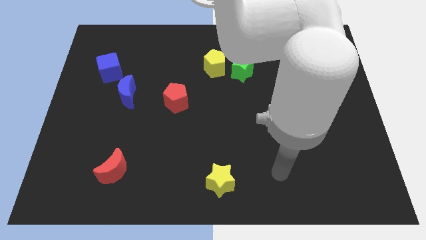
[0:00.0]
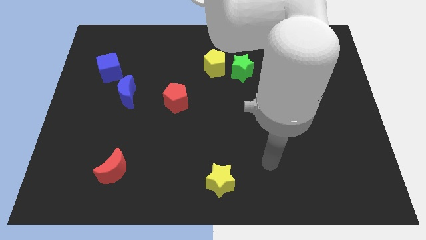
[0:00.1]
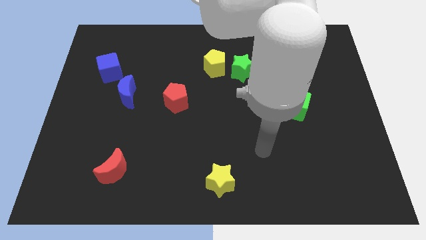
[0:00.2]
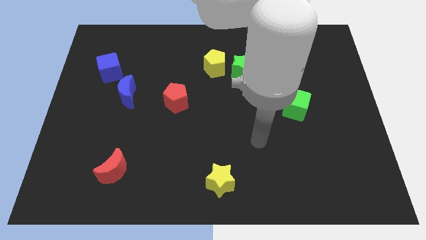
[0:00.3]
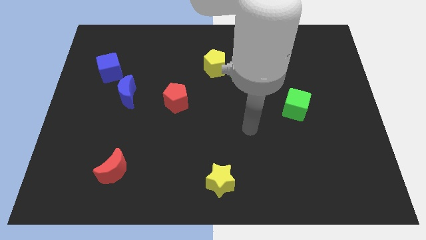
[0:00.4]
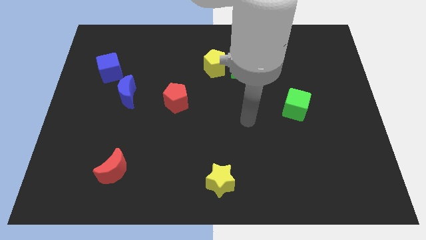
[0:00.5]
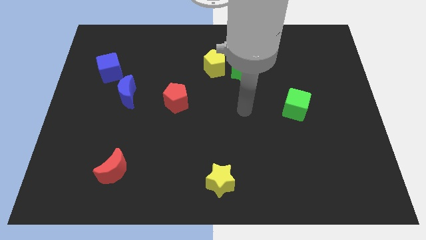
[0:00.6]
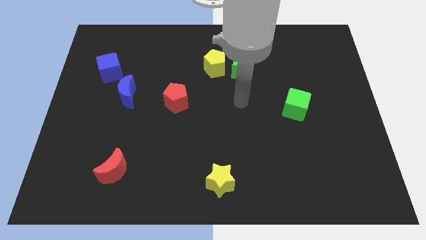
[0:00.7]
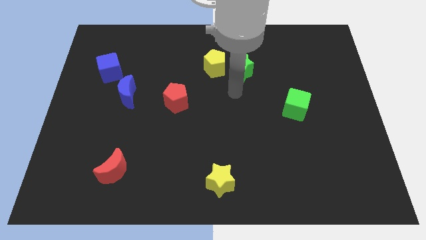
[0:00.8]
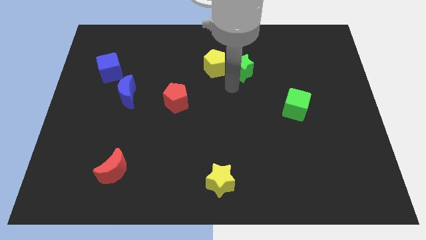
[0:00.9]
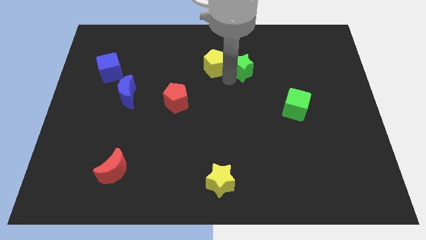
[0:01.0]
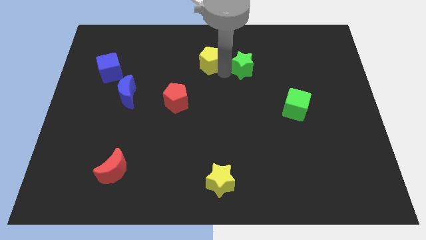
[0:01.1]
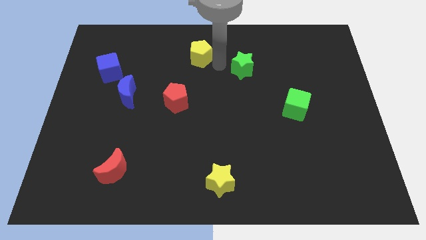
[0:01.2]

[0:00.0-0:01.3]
move the green star away from the yellow pentagon

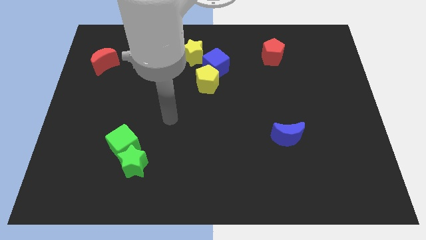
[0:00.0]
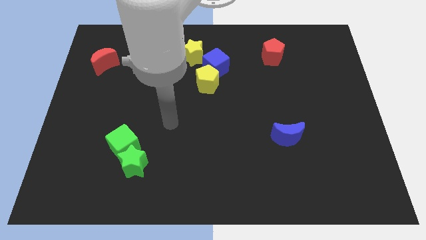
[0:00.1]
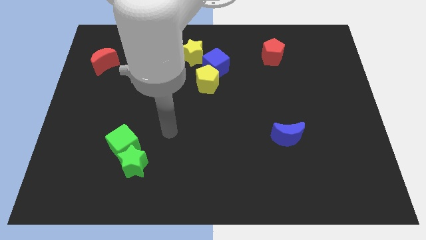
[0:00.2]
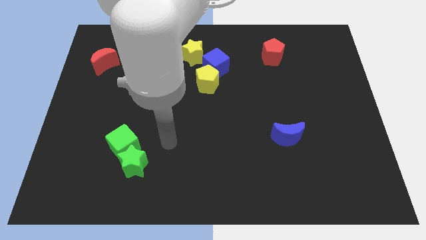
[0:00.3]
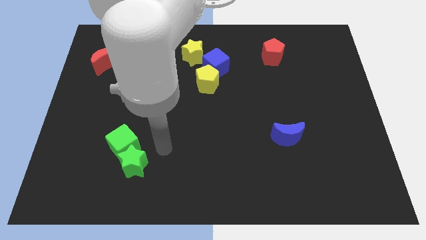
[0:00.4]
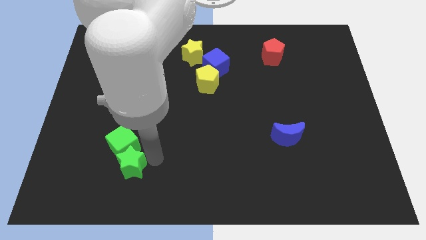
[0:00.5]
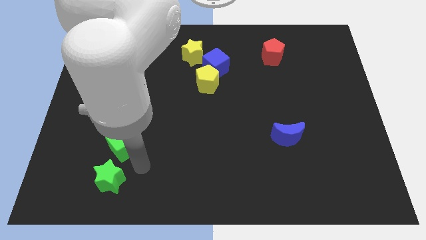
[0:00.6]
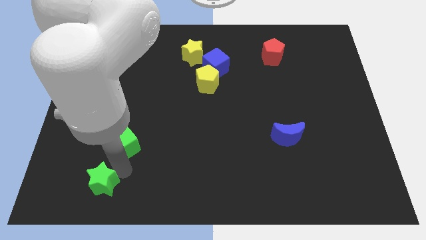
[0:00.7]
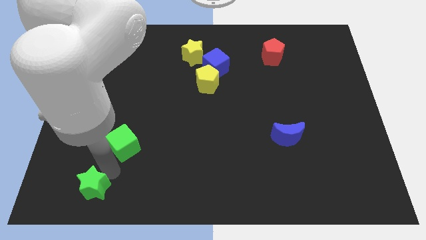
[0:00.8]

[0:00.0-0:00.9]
move the green cube away from the green star

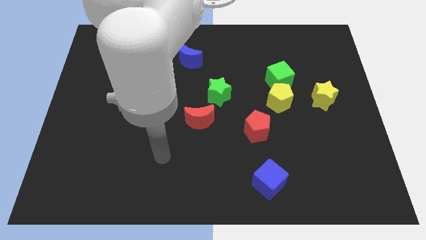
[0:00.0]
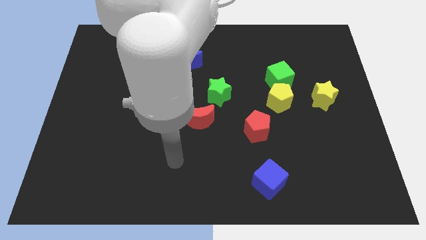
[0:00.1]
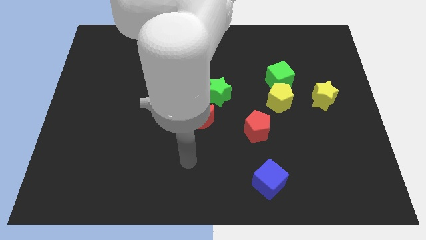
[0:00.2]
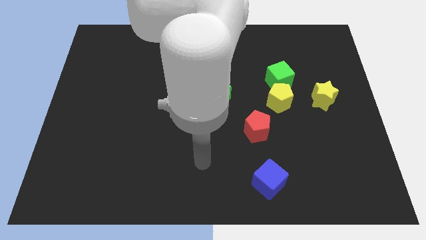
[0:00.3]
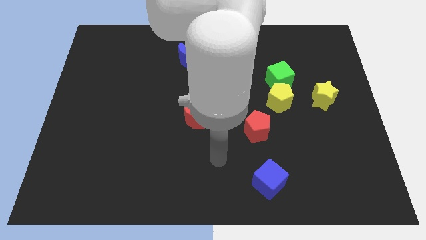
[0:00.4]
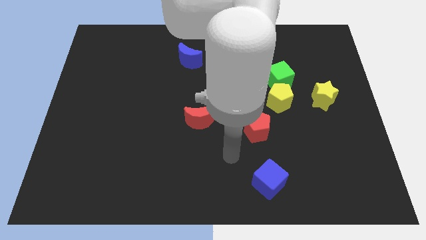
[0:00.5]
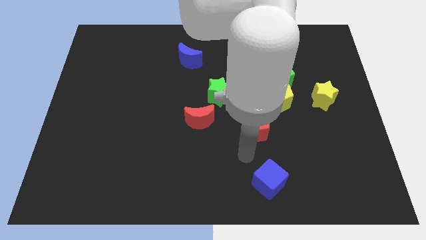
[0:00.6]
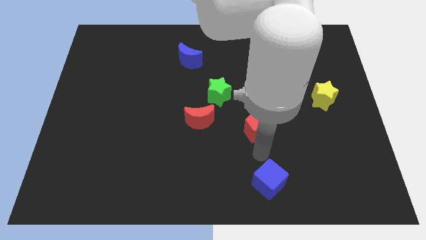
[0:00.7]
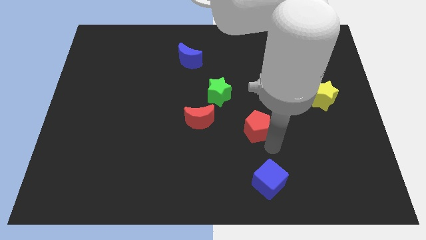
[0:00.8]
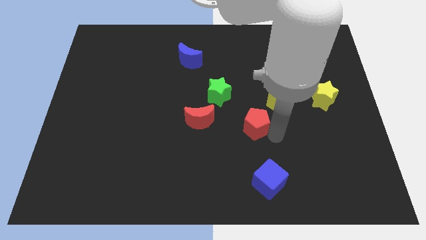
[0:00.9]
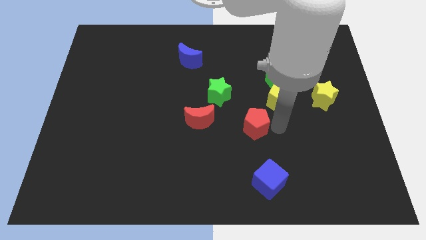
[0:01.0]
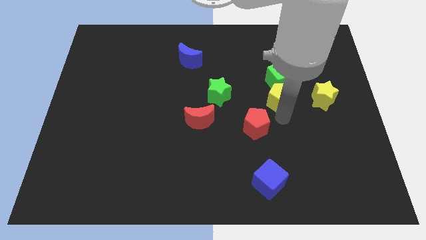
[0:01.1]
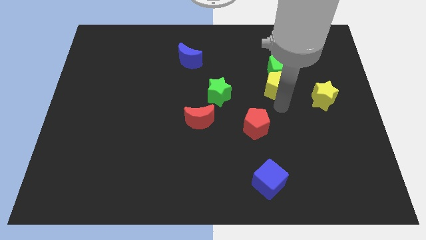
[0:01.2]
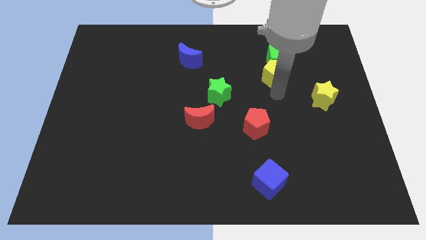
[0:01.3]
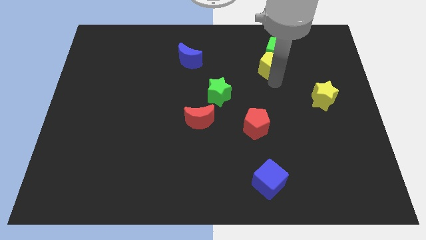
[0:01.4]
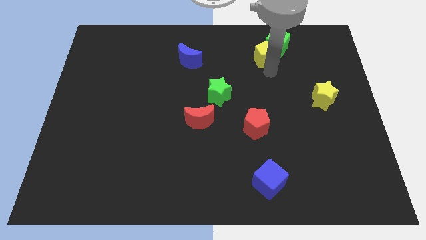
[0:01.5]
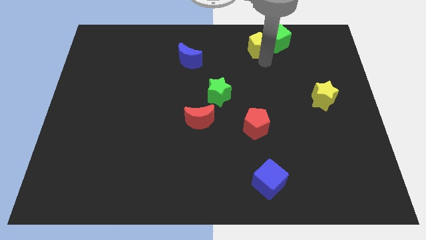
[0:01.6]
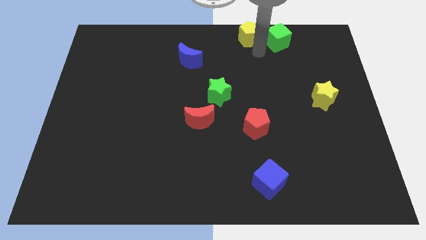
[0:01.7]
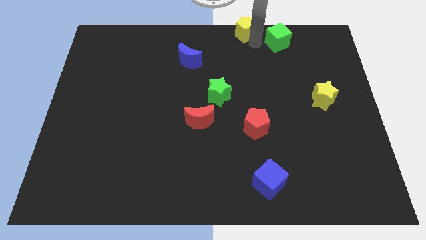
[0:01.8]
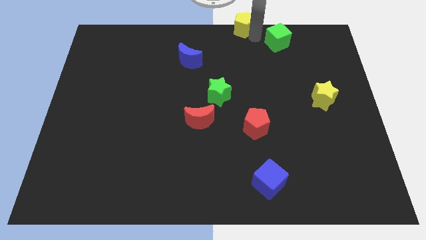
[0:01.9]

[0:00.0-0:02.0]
separate the green cube from the yellow pentagon

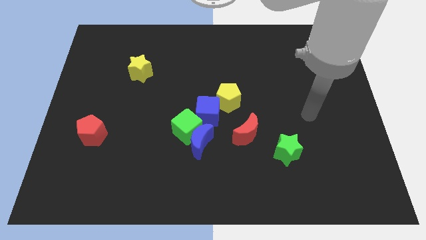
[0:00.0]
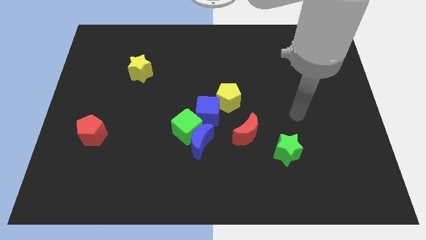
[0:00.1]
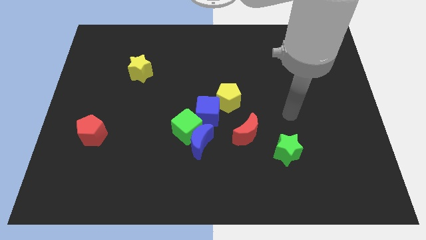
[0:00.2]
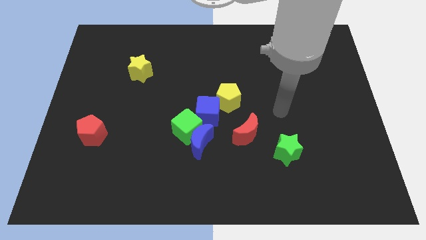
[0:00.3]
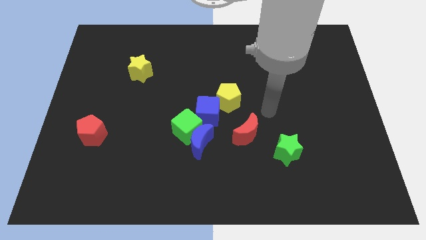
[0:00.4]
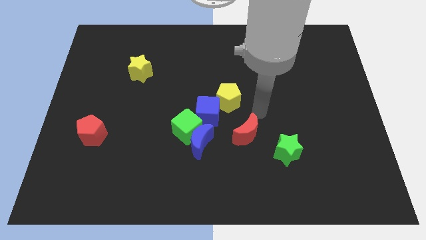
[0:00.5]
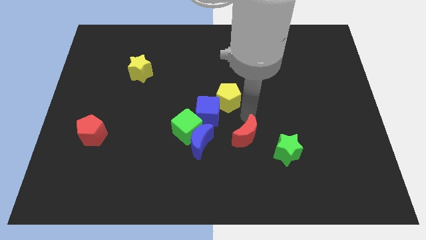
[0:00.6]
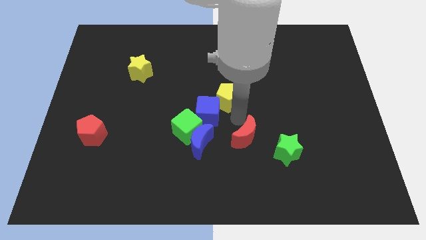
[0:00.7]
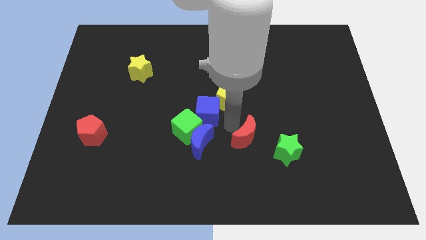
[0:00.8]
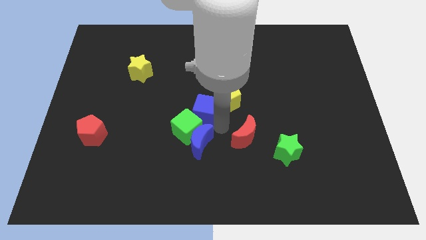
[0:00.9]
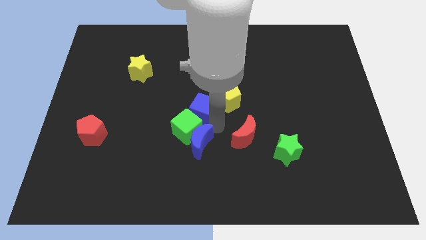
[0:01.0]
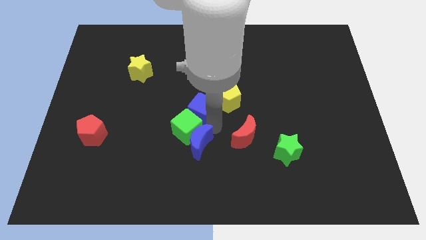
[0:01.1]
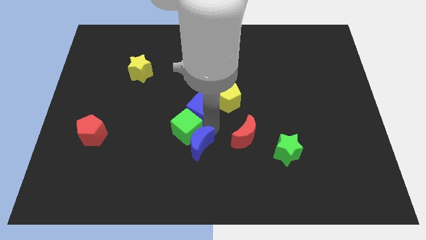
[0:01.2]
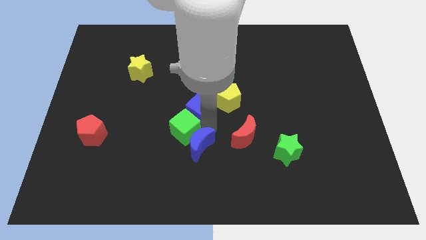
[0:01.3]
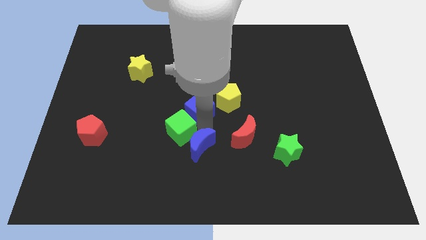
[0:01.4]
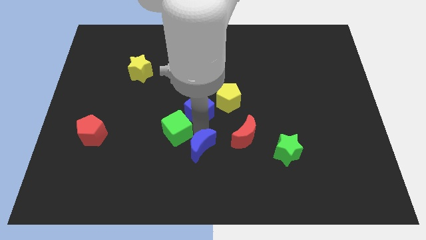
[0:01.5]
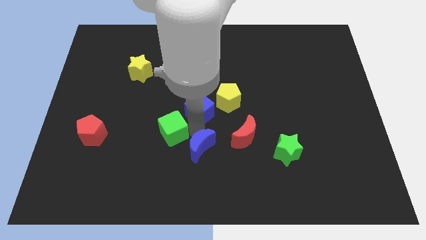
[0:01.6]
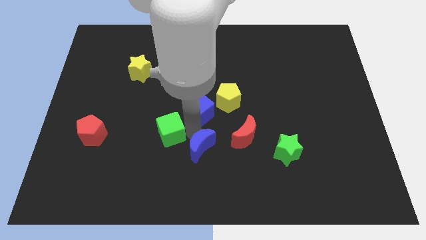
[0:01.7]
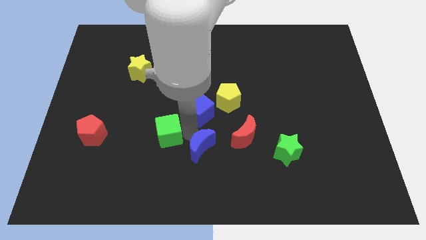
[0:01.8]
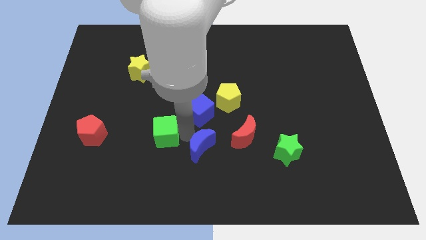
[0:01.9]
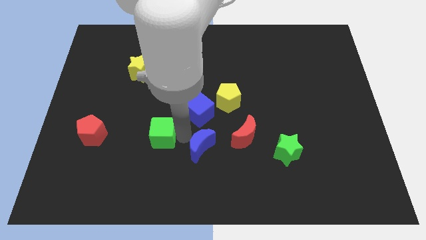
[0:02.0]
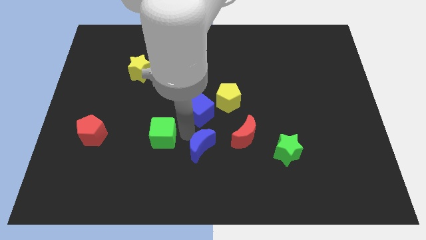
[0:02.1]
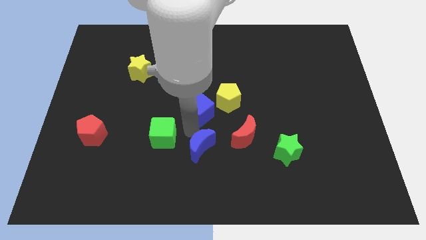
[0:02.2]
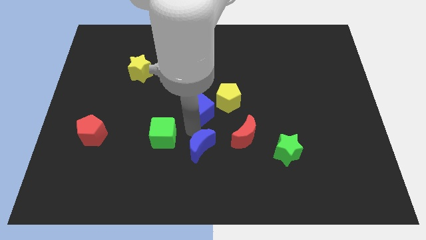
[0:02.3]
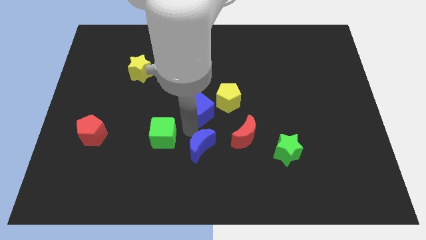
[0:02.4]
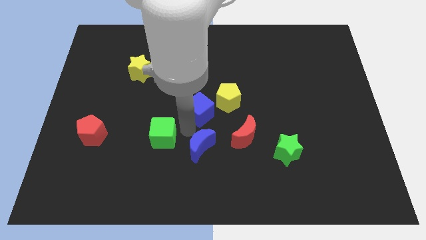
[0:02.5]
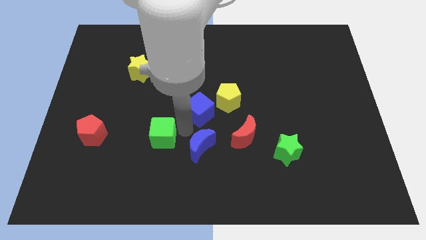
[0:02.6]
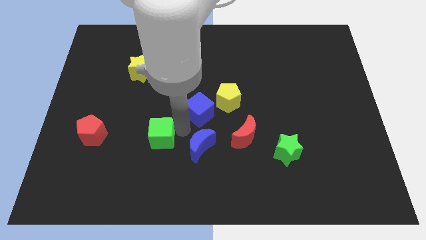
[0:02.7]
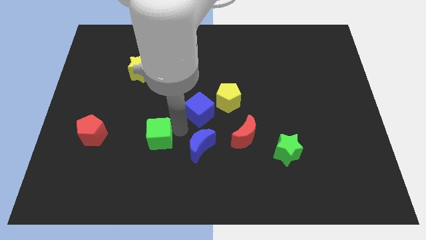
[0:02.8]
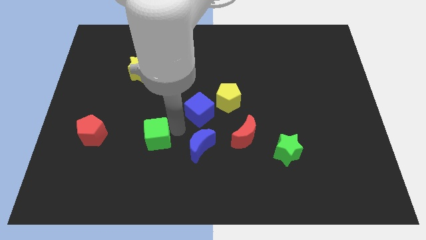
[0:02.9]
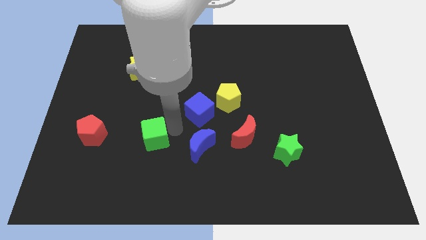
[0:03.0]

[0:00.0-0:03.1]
move the green cube away from the blue moon and blue cube

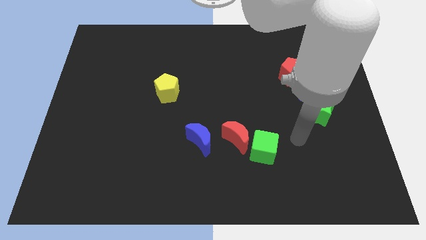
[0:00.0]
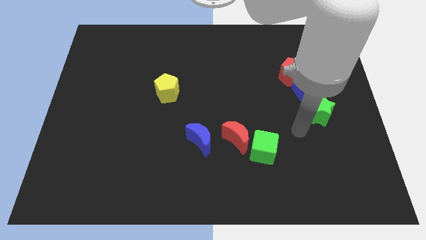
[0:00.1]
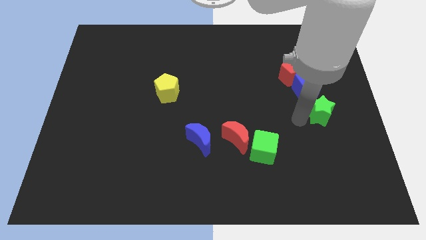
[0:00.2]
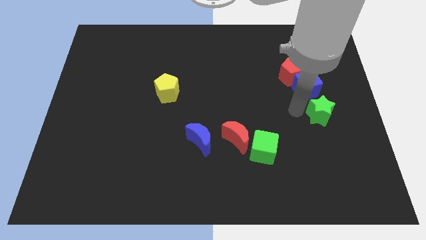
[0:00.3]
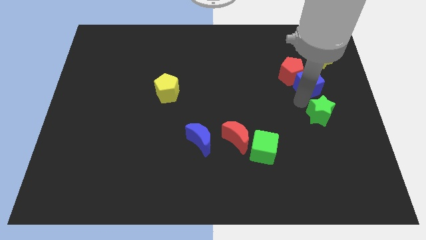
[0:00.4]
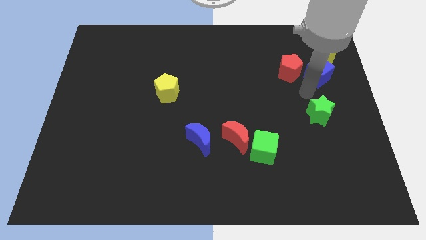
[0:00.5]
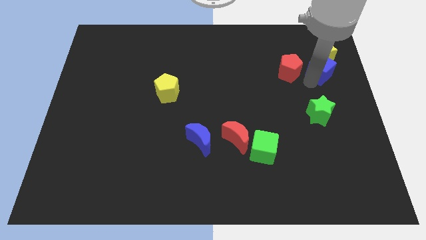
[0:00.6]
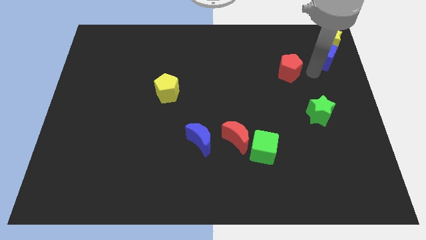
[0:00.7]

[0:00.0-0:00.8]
separate the red pentagon from the blue cube

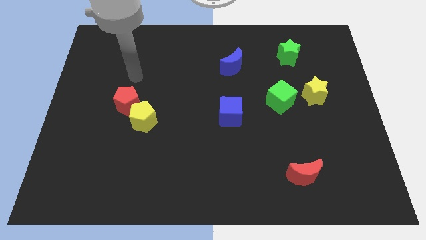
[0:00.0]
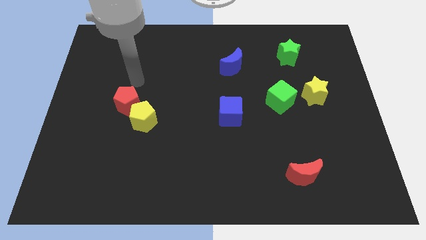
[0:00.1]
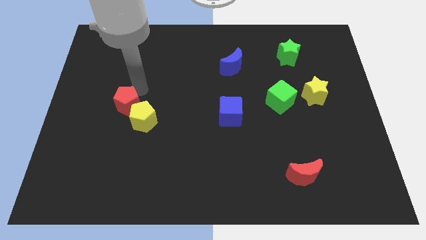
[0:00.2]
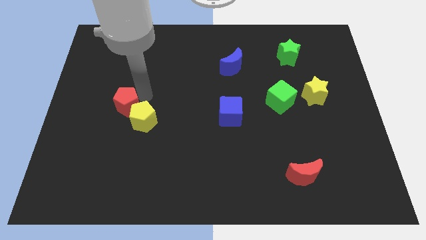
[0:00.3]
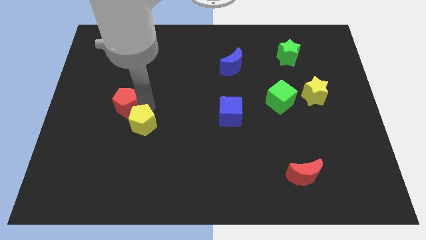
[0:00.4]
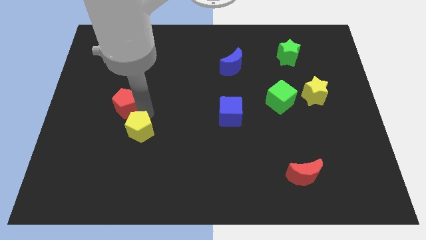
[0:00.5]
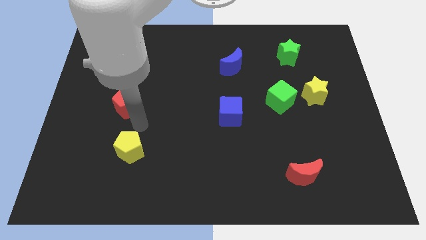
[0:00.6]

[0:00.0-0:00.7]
move the red pentagon away from the yellow pentagon

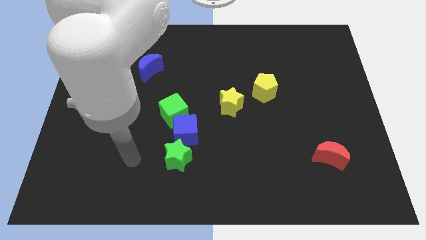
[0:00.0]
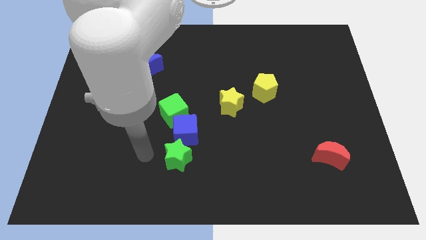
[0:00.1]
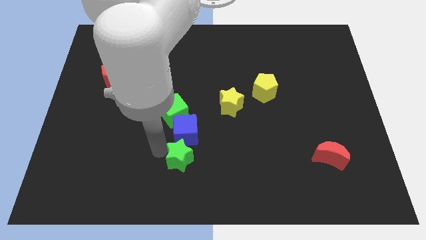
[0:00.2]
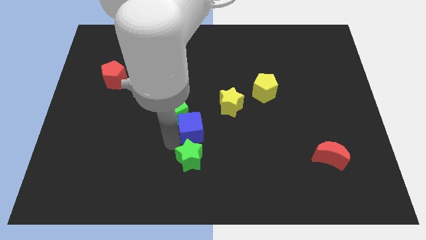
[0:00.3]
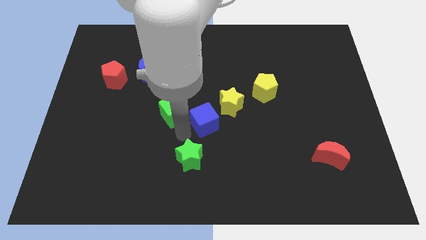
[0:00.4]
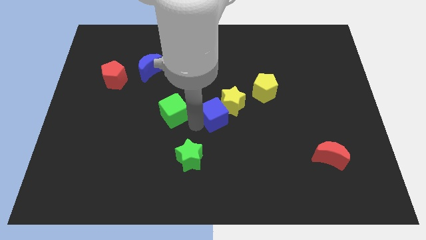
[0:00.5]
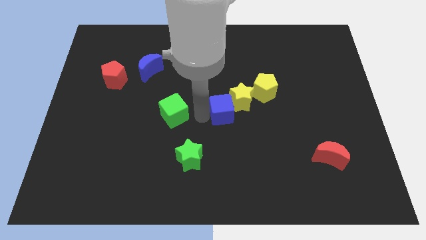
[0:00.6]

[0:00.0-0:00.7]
move the green cube away from the blue cube

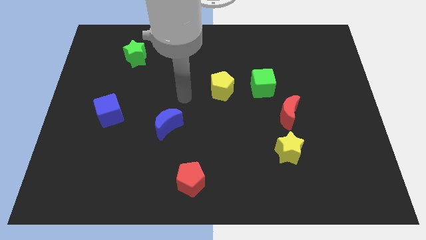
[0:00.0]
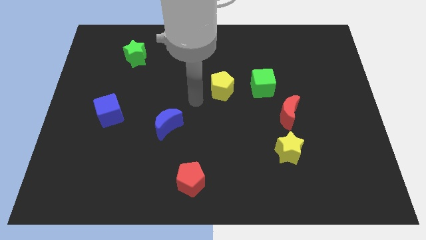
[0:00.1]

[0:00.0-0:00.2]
pull the yellow star apart from the red moon
